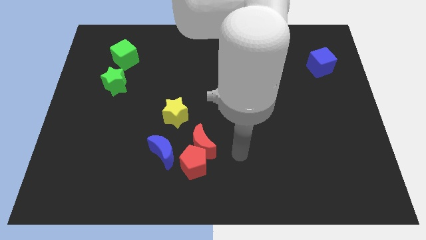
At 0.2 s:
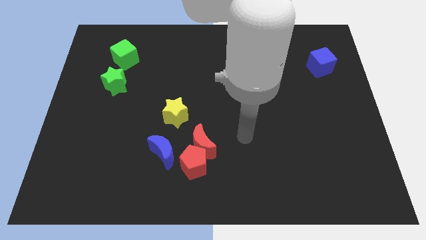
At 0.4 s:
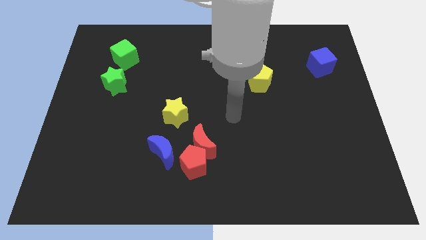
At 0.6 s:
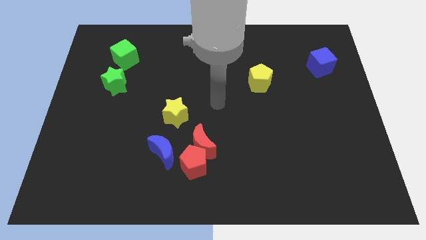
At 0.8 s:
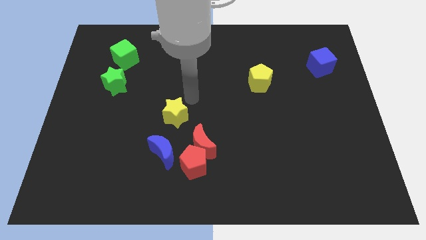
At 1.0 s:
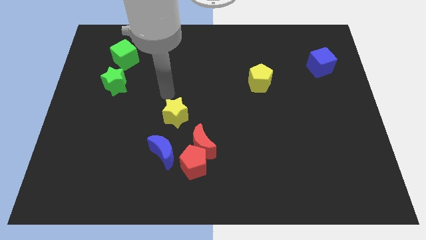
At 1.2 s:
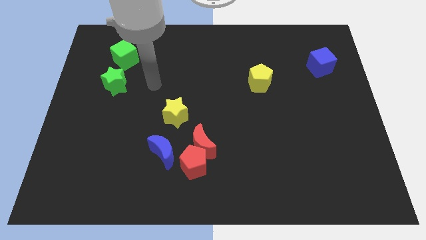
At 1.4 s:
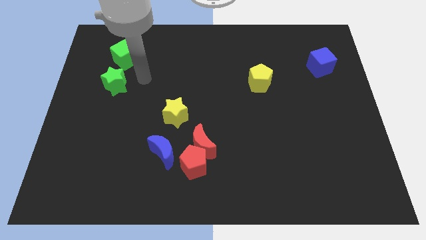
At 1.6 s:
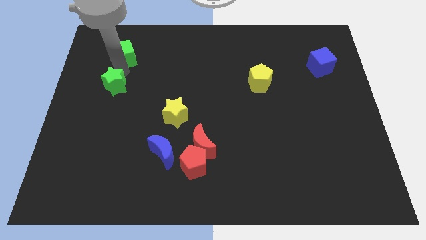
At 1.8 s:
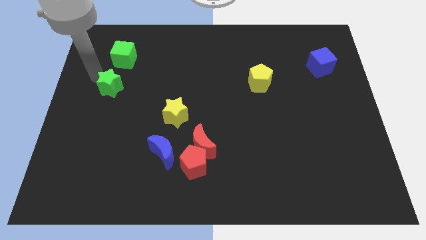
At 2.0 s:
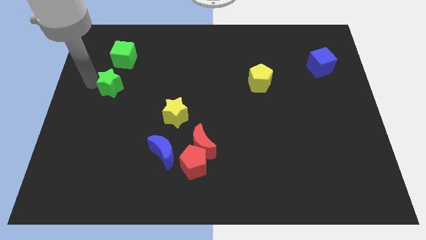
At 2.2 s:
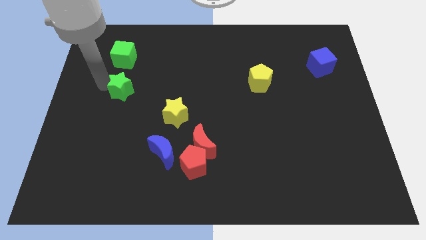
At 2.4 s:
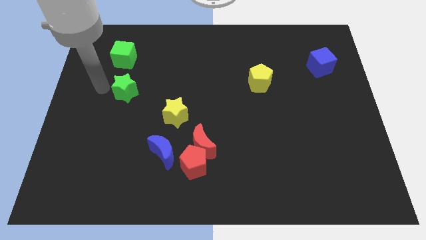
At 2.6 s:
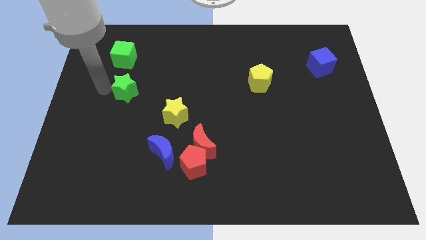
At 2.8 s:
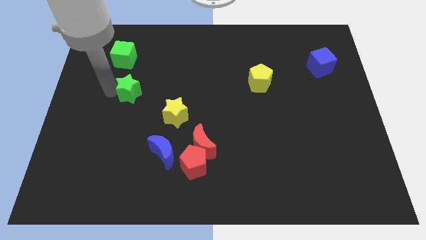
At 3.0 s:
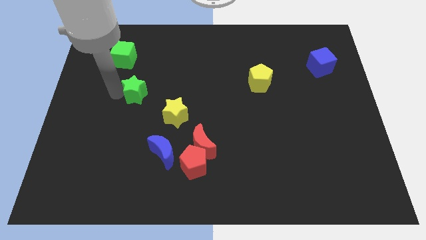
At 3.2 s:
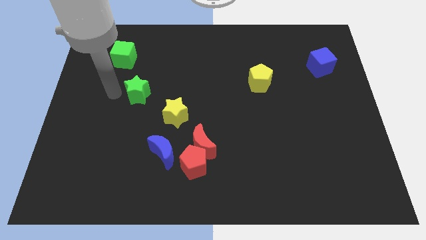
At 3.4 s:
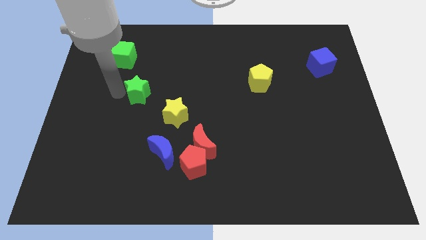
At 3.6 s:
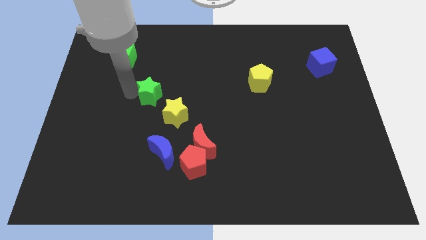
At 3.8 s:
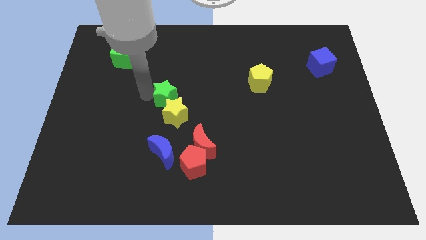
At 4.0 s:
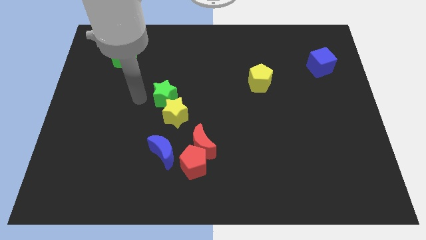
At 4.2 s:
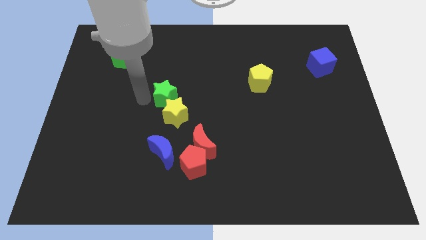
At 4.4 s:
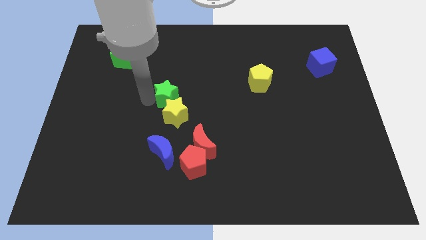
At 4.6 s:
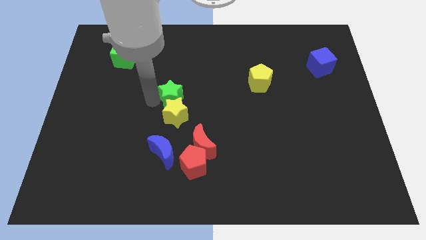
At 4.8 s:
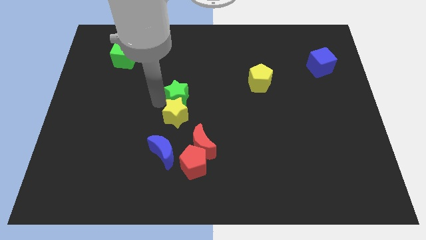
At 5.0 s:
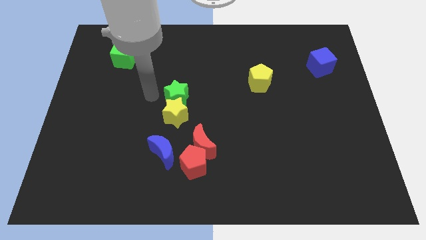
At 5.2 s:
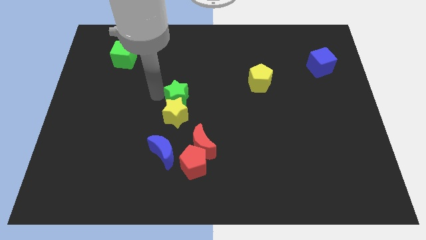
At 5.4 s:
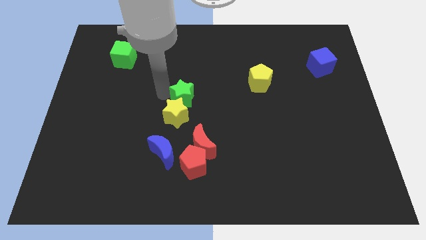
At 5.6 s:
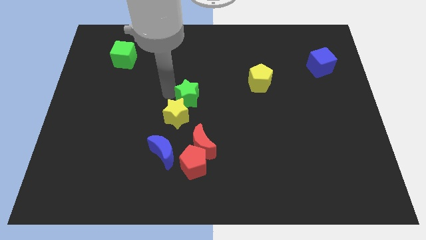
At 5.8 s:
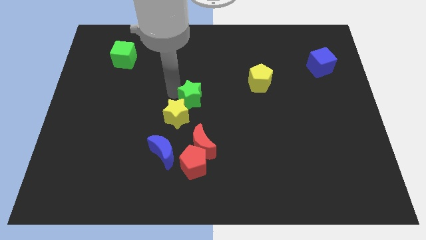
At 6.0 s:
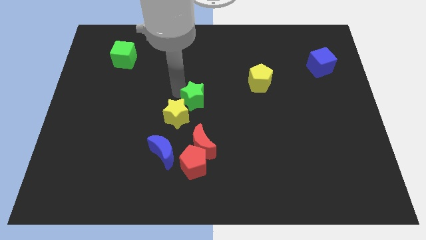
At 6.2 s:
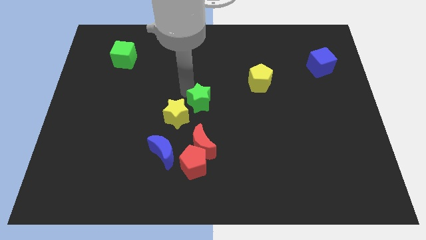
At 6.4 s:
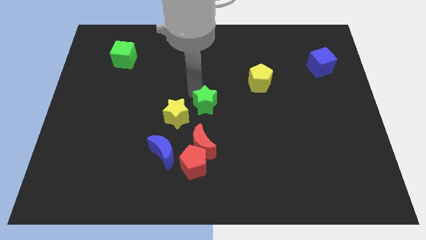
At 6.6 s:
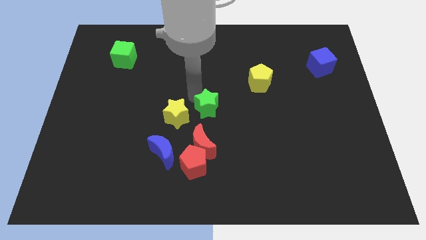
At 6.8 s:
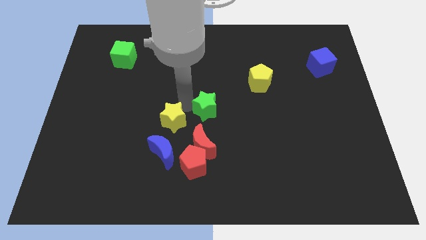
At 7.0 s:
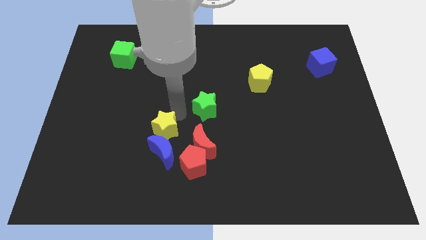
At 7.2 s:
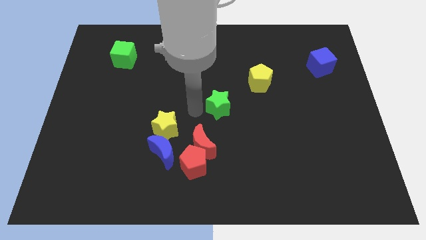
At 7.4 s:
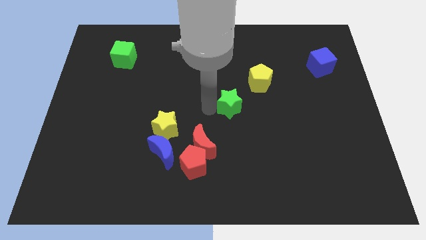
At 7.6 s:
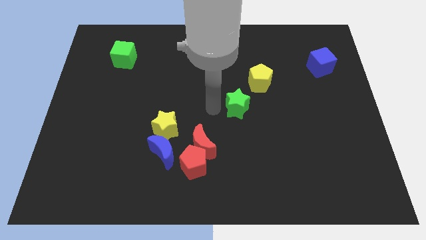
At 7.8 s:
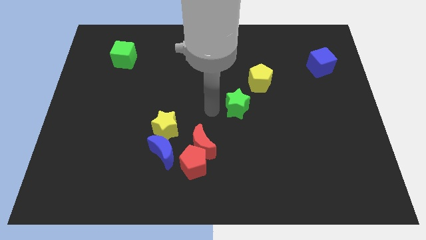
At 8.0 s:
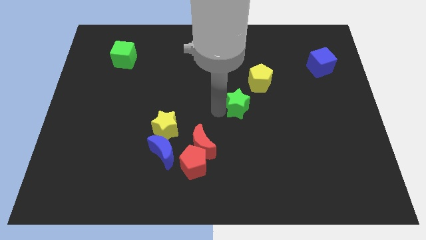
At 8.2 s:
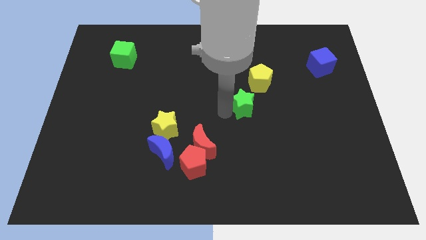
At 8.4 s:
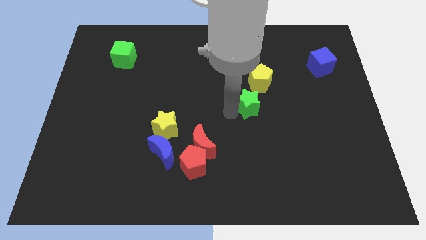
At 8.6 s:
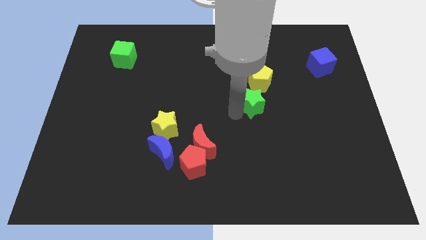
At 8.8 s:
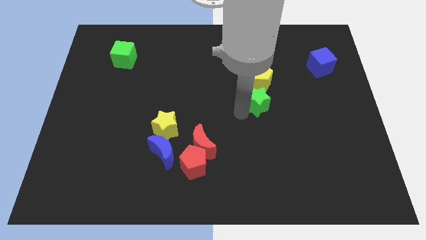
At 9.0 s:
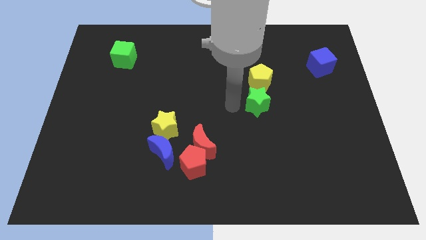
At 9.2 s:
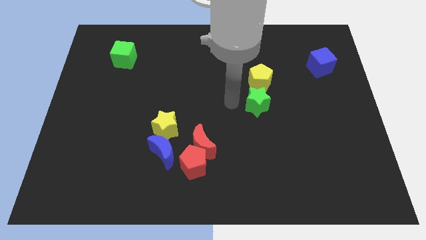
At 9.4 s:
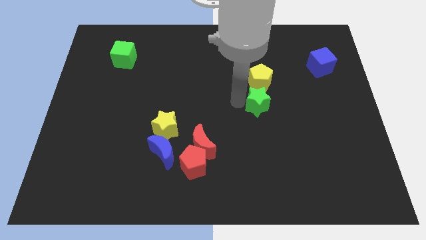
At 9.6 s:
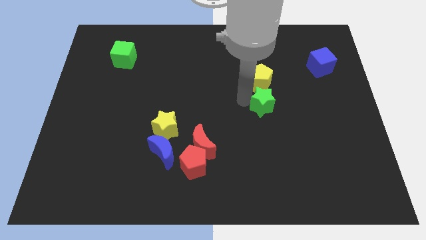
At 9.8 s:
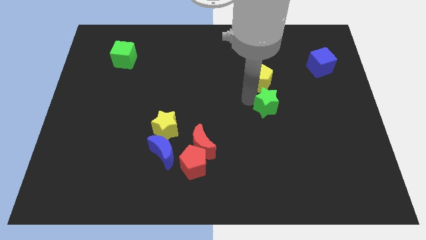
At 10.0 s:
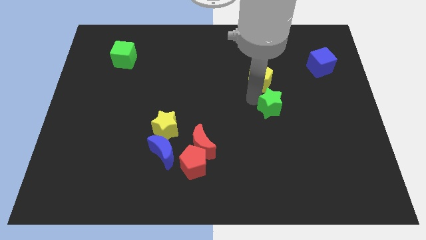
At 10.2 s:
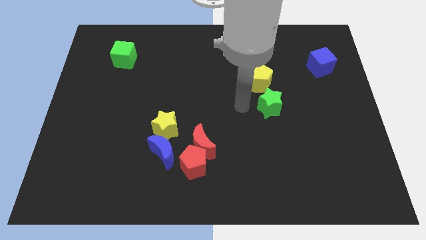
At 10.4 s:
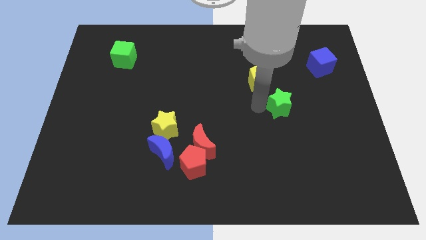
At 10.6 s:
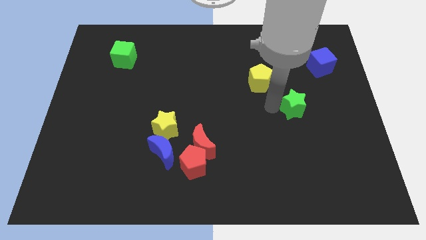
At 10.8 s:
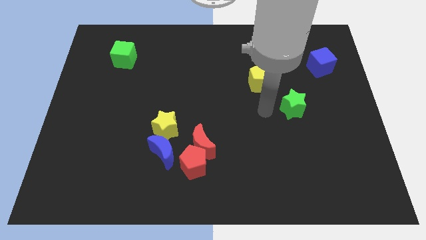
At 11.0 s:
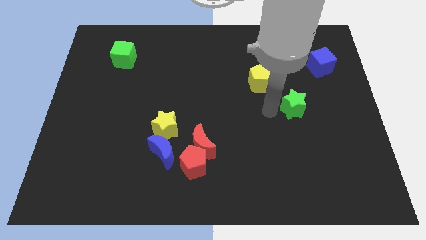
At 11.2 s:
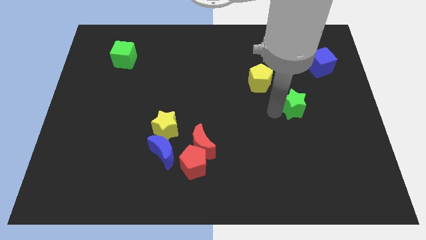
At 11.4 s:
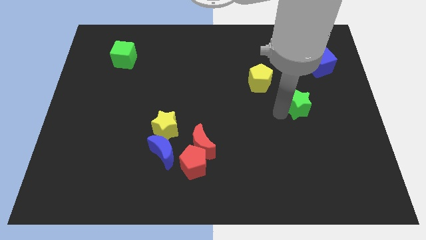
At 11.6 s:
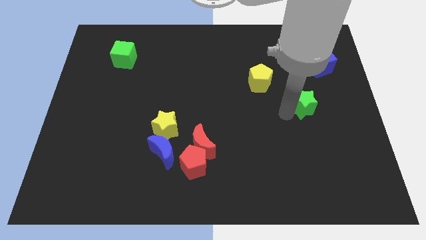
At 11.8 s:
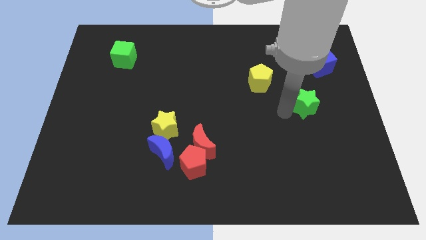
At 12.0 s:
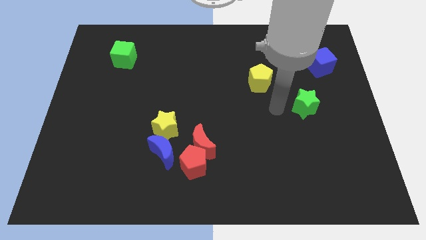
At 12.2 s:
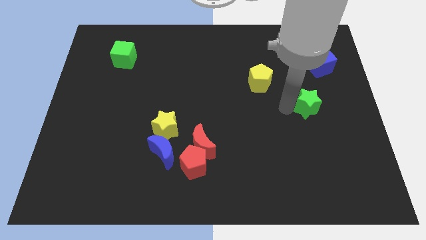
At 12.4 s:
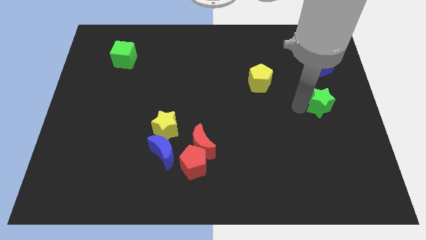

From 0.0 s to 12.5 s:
slide the green star to the right side

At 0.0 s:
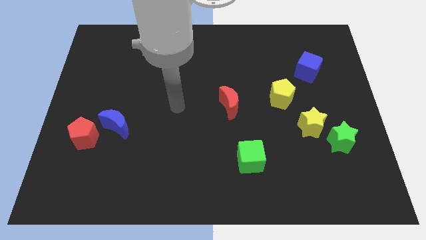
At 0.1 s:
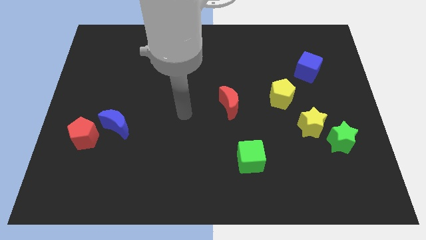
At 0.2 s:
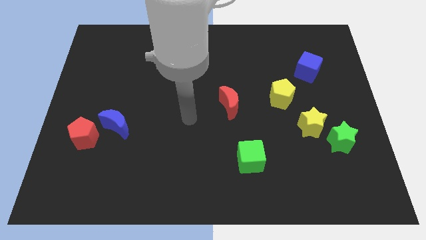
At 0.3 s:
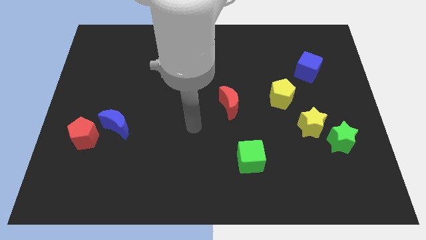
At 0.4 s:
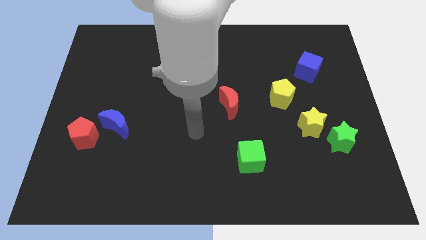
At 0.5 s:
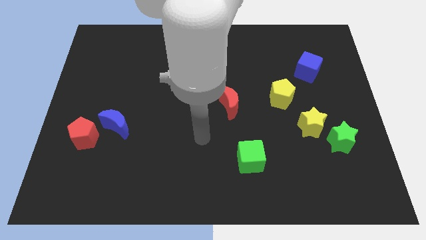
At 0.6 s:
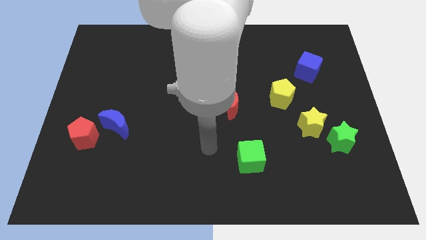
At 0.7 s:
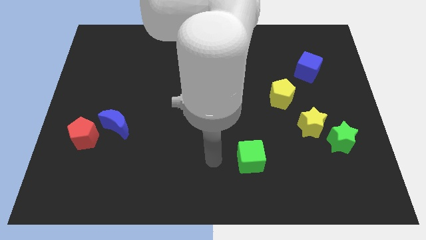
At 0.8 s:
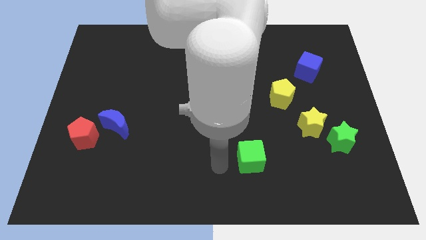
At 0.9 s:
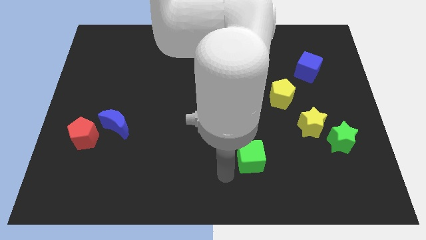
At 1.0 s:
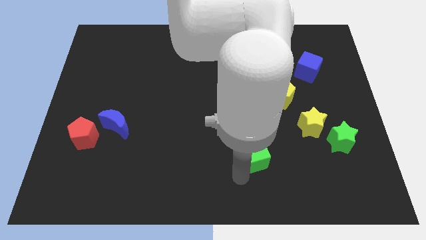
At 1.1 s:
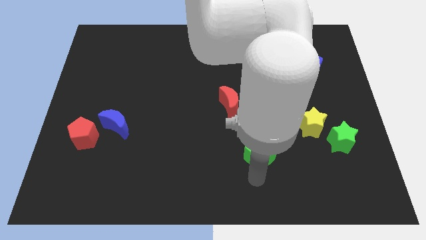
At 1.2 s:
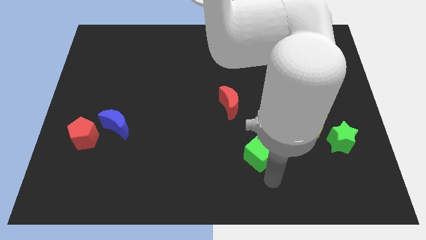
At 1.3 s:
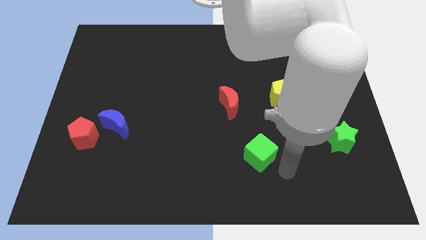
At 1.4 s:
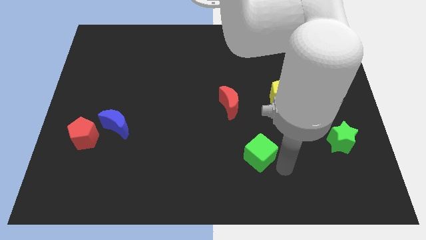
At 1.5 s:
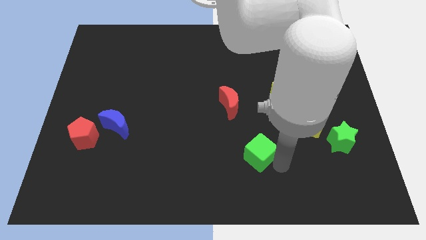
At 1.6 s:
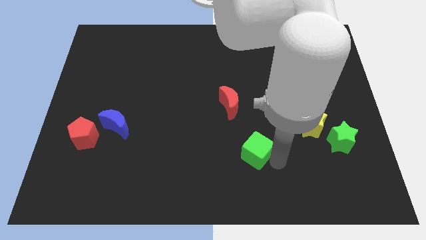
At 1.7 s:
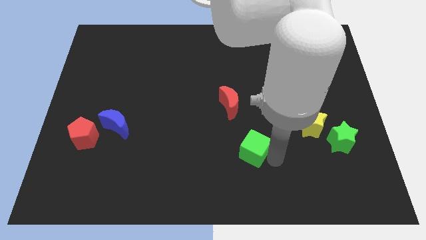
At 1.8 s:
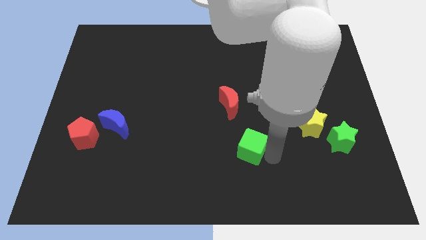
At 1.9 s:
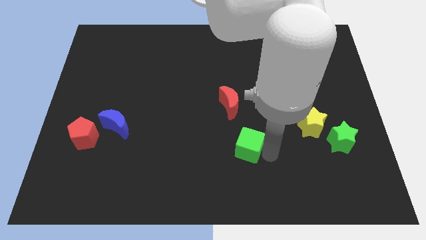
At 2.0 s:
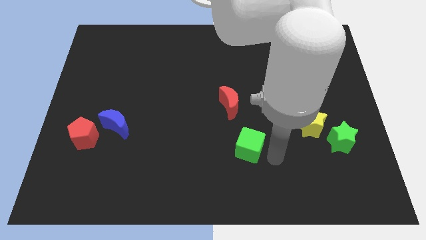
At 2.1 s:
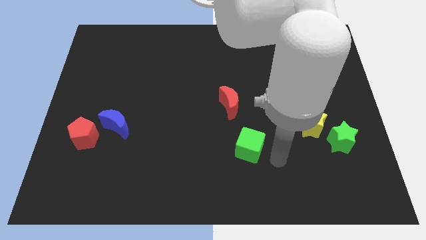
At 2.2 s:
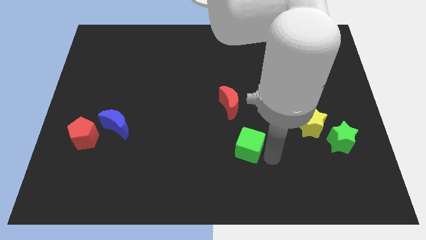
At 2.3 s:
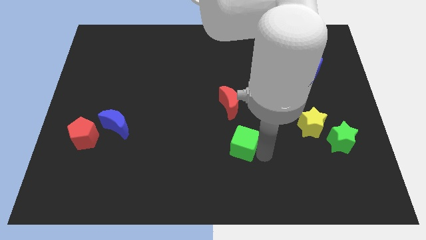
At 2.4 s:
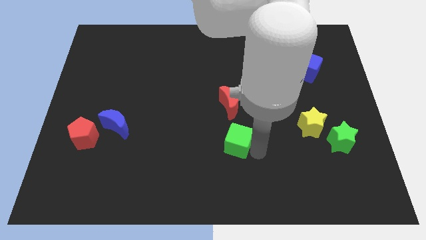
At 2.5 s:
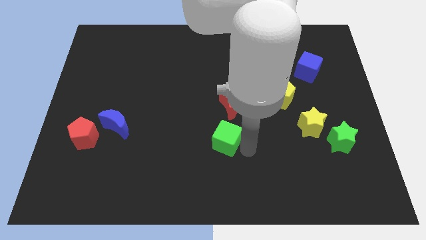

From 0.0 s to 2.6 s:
slide the green cube to the center
